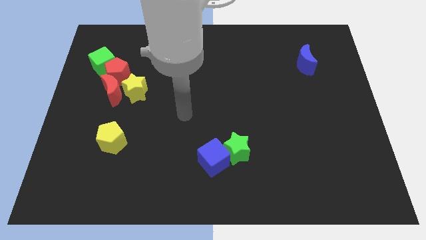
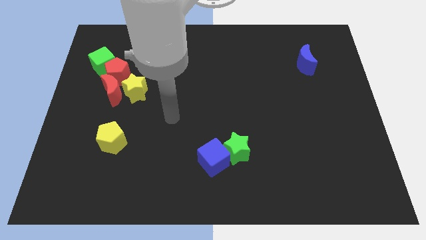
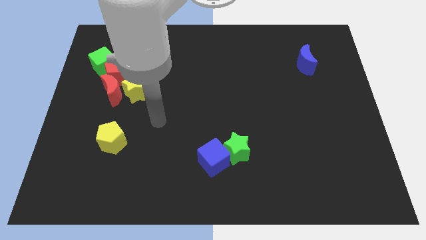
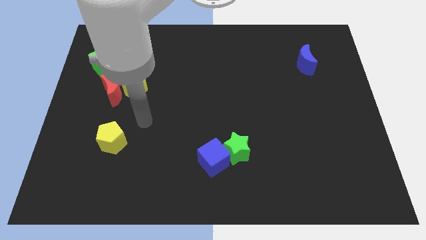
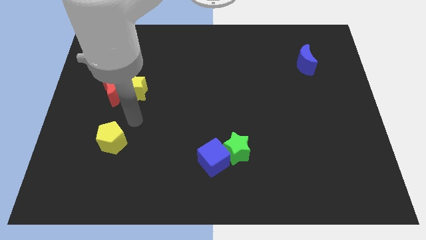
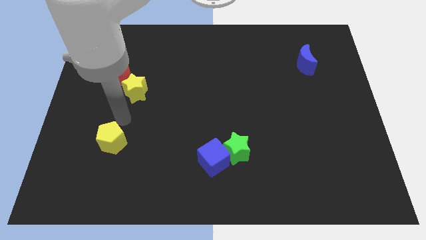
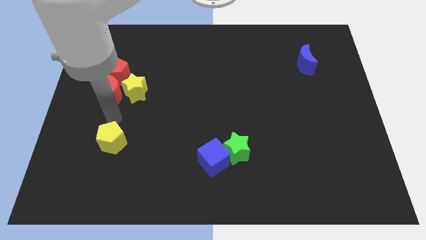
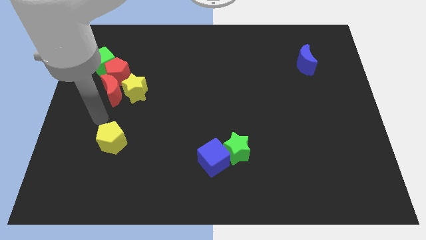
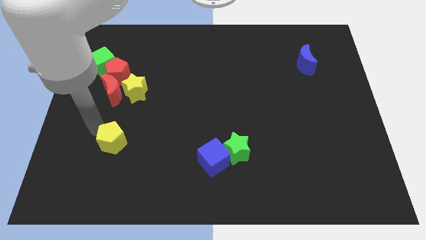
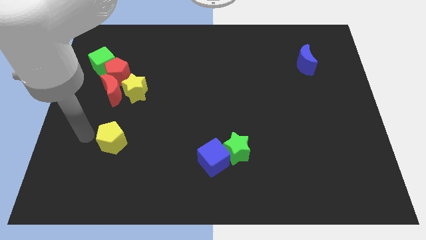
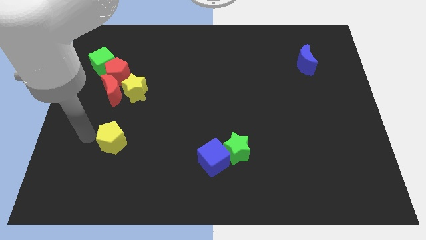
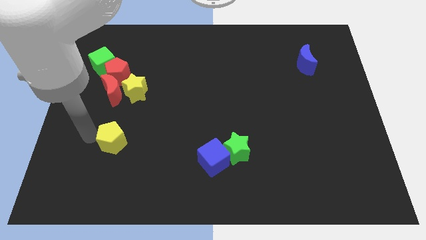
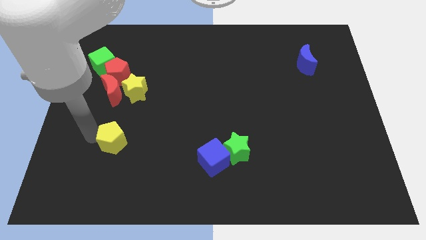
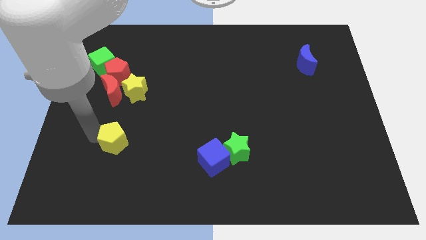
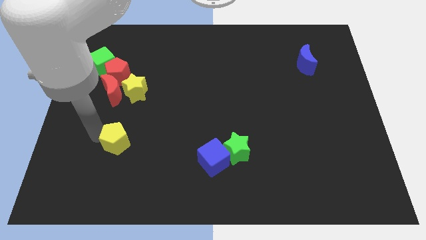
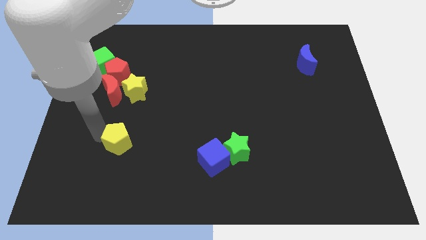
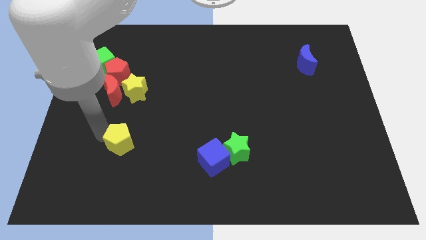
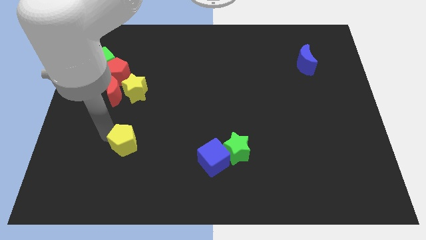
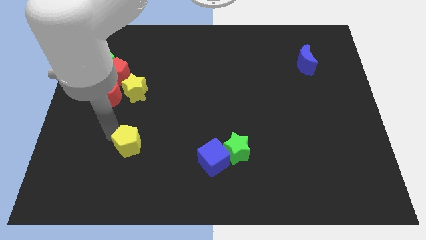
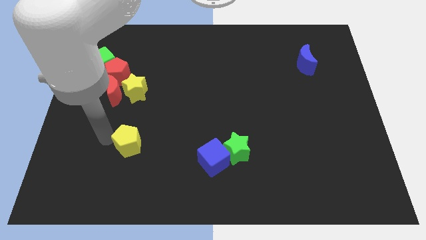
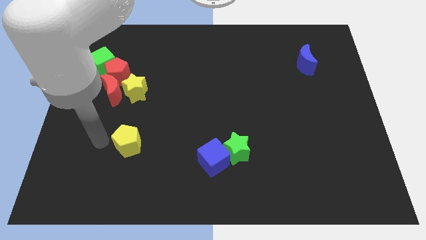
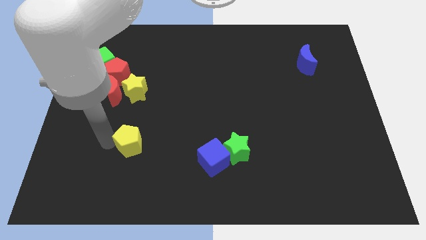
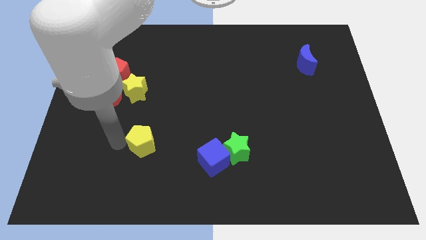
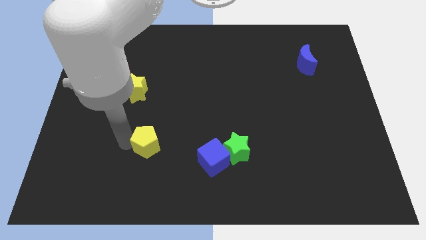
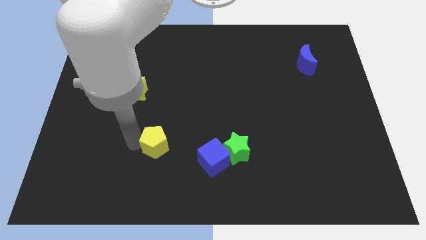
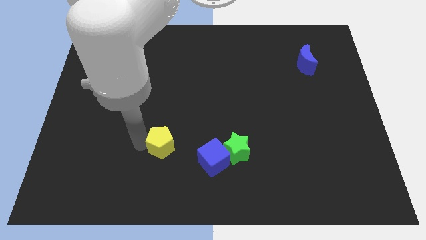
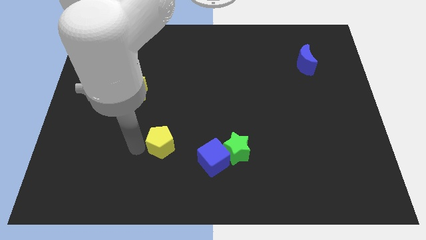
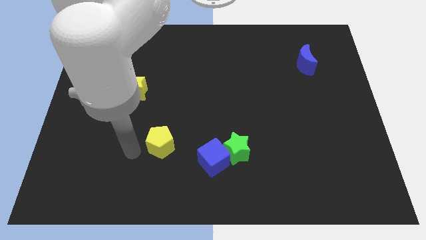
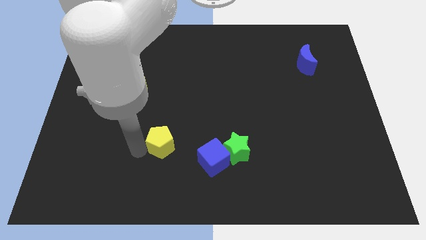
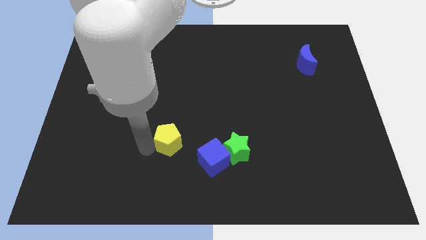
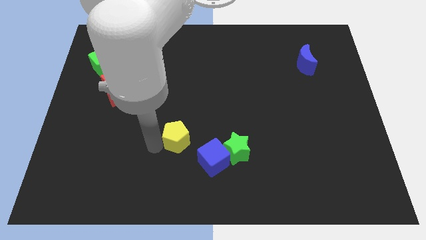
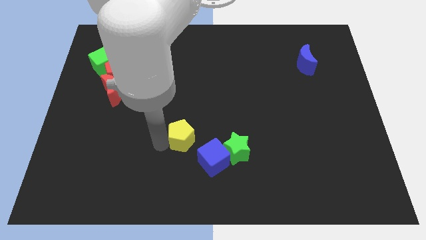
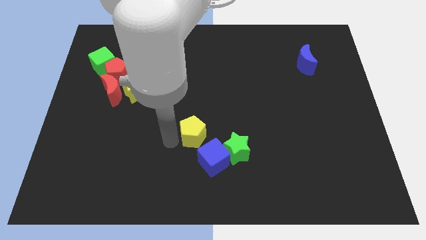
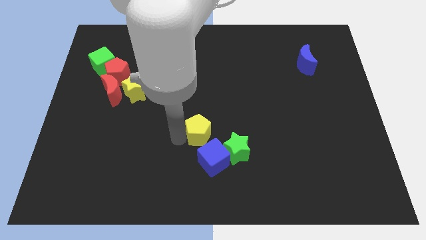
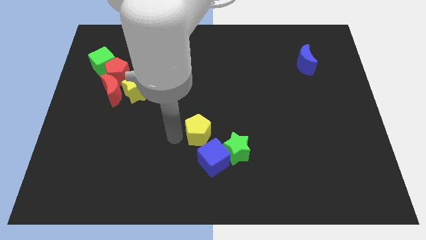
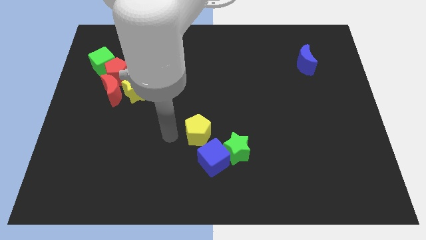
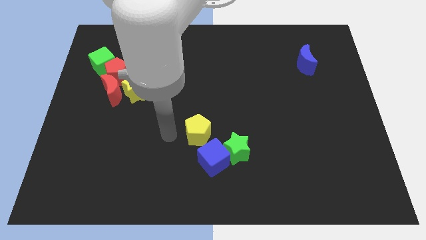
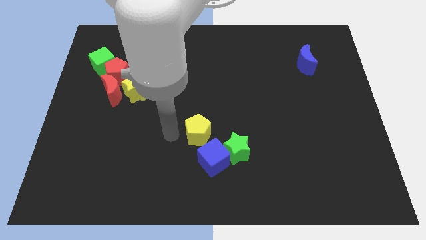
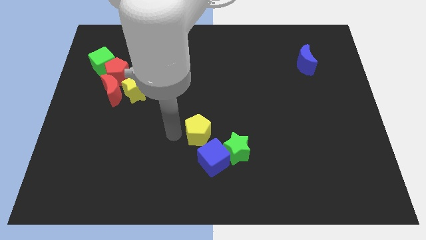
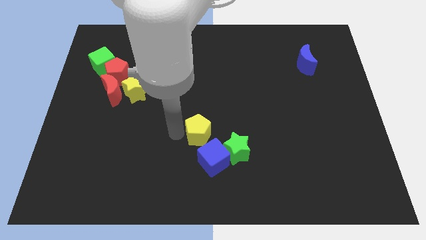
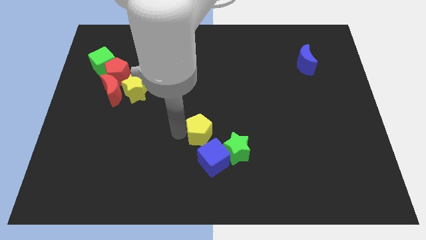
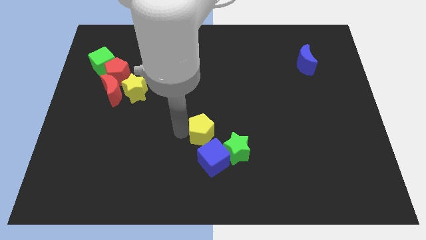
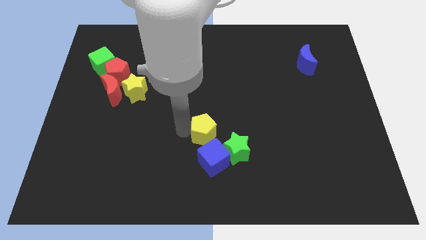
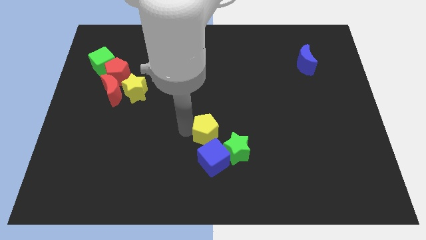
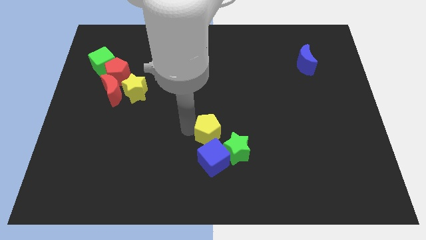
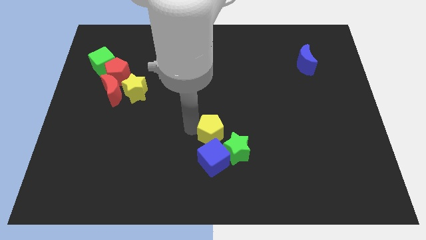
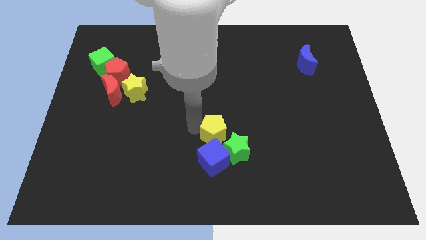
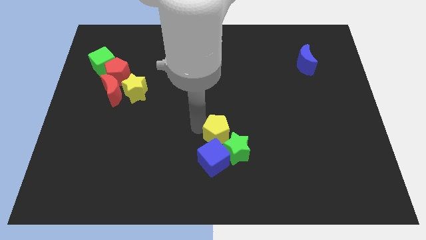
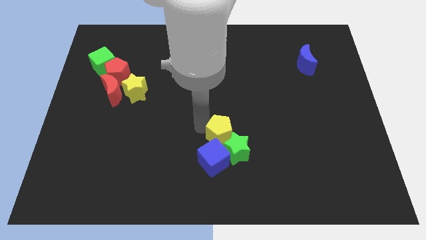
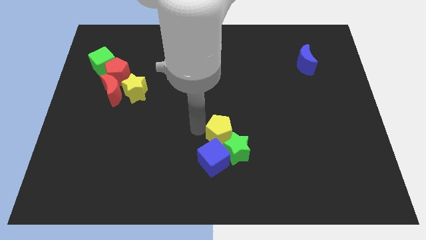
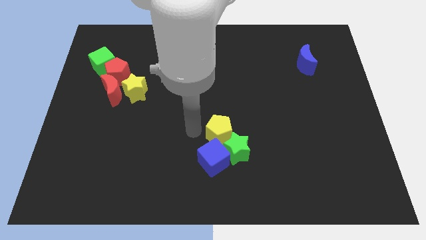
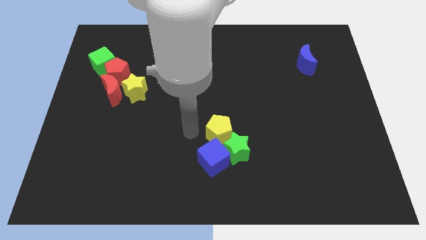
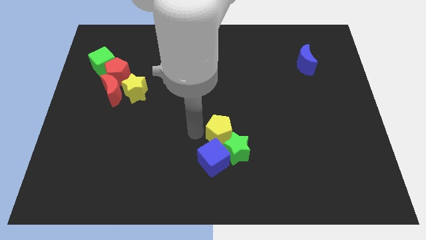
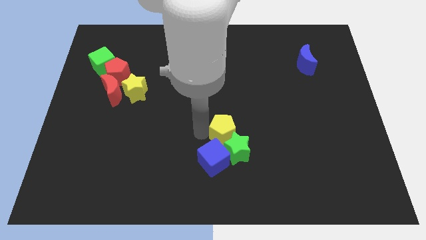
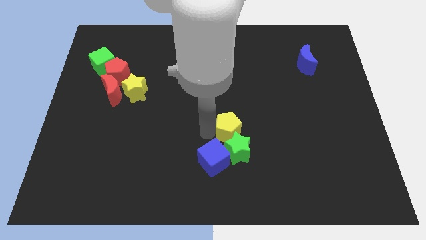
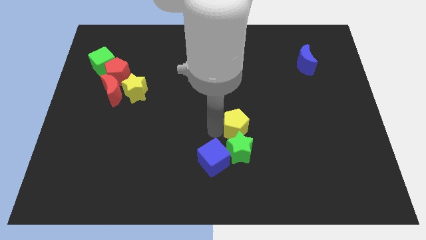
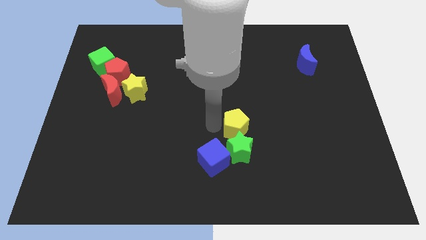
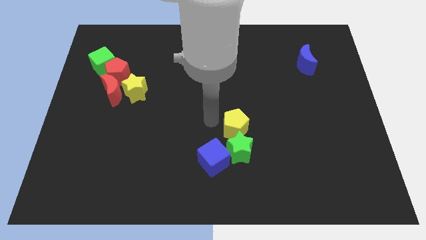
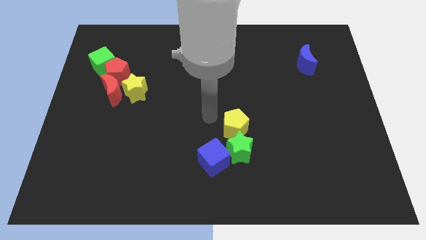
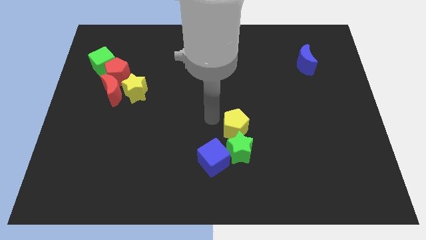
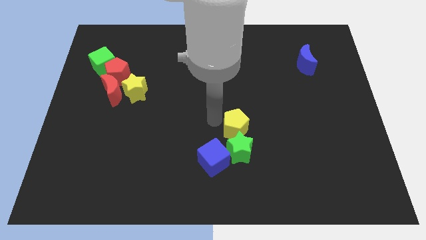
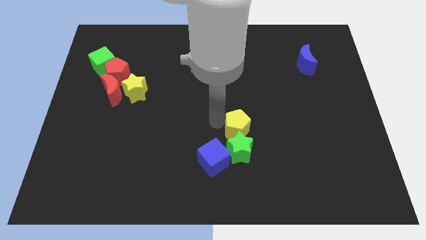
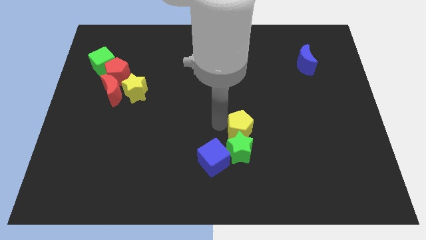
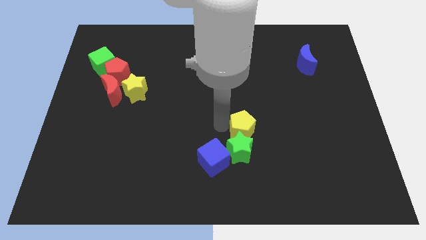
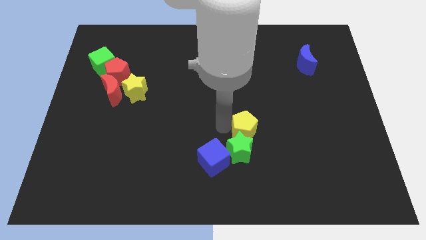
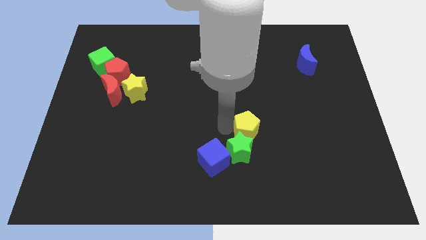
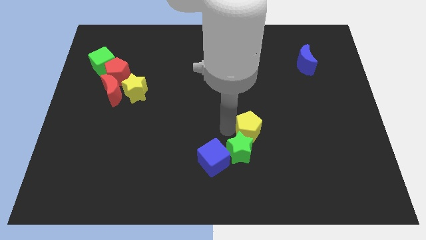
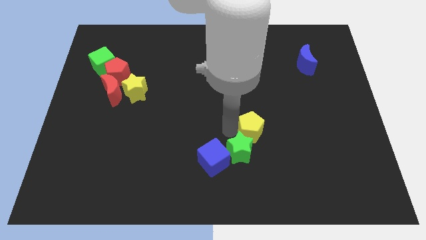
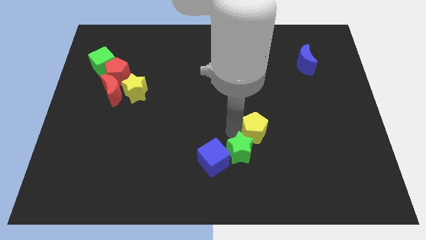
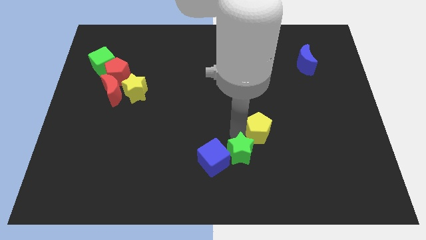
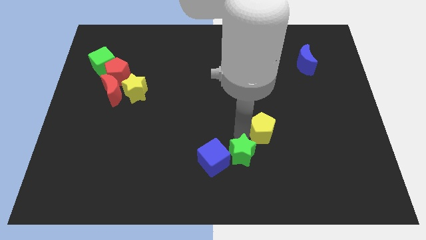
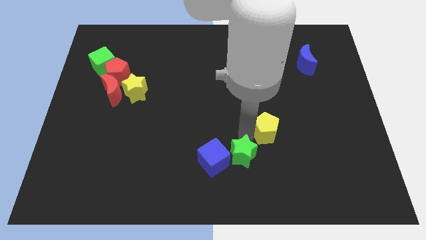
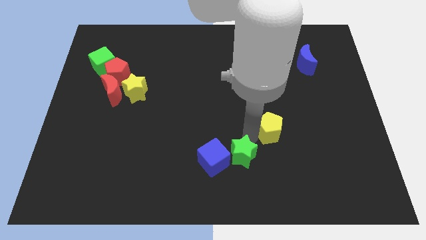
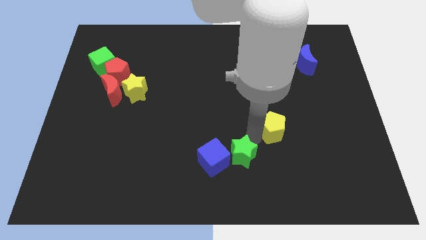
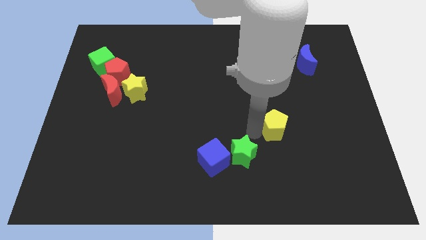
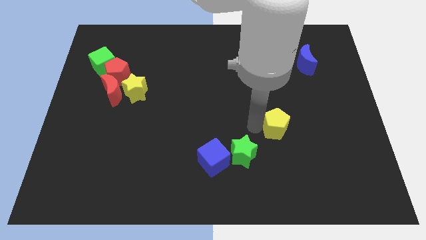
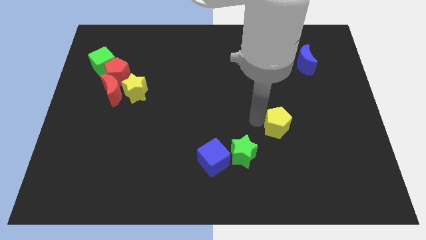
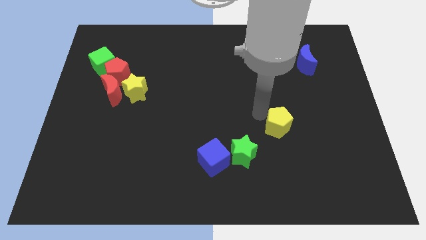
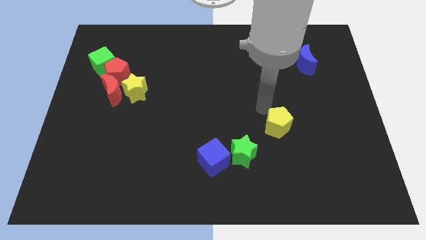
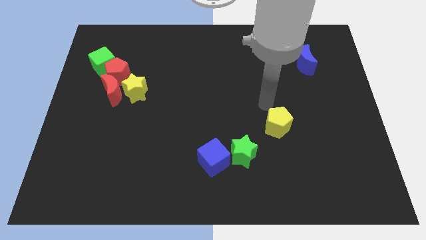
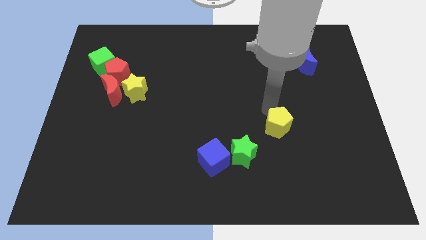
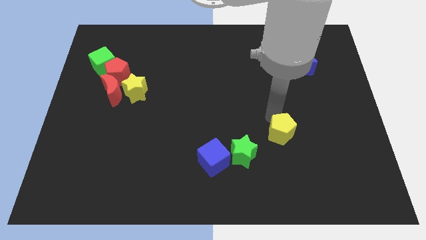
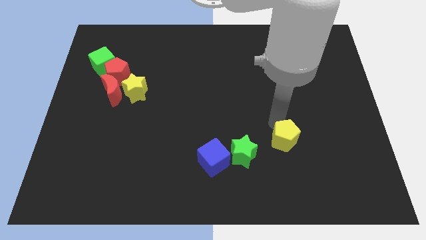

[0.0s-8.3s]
push the yellow pentagon right of the green star
